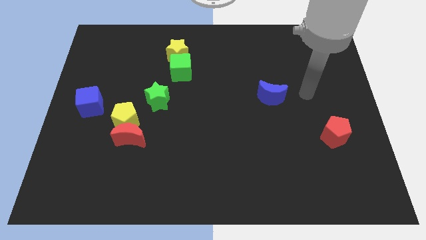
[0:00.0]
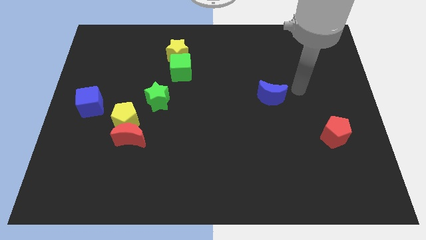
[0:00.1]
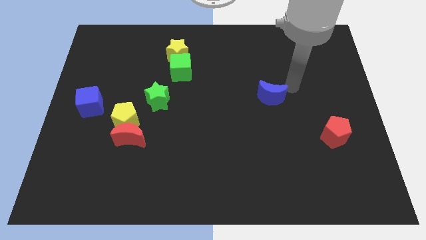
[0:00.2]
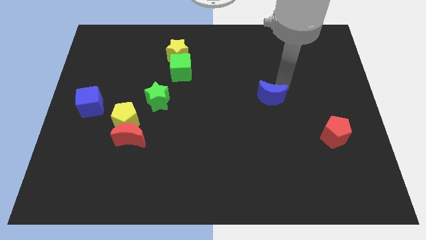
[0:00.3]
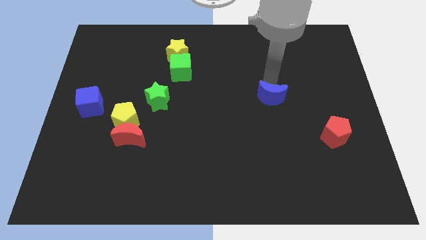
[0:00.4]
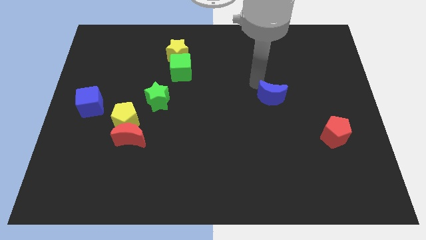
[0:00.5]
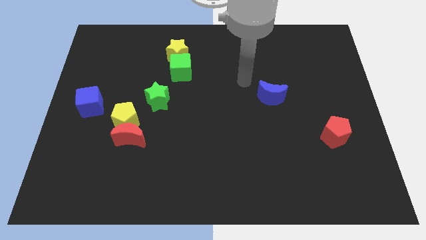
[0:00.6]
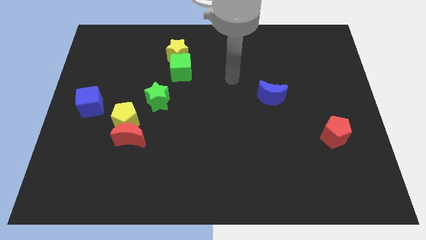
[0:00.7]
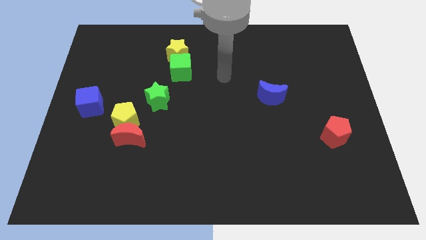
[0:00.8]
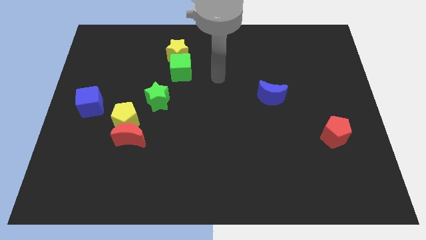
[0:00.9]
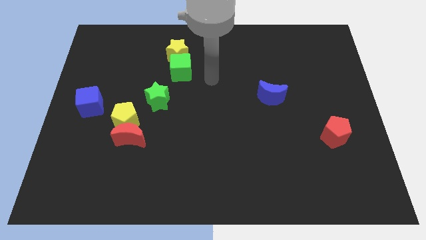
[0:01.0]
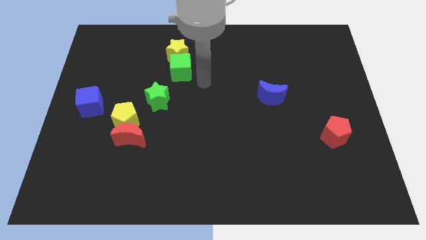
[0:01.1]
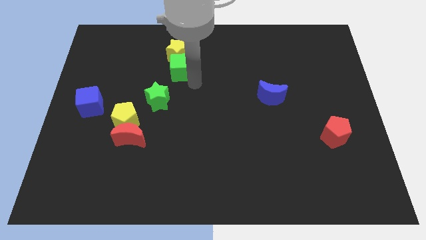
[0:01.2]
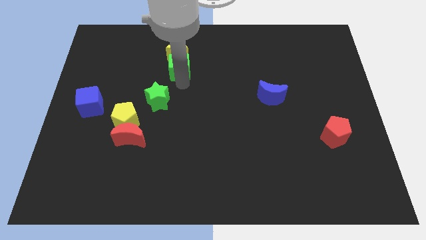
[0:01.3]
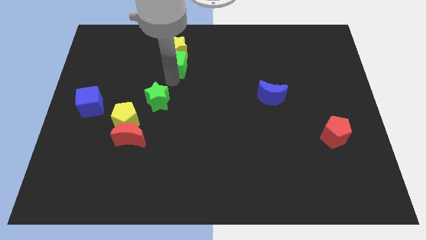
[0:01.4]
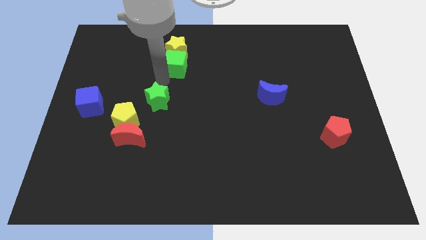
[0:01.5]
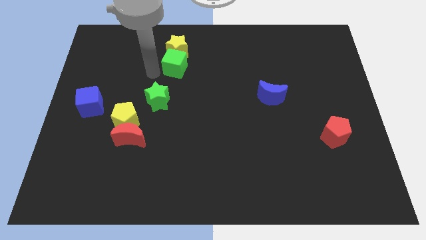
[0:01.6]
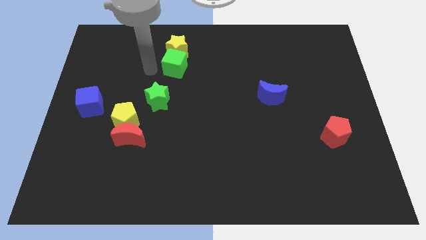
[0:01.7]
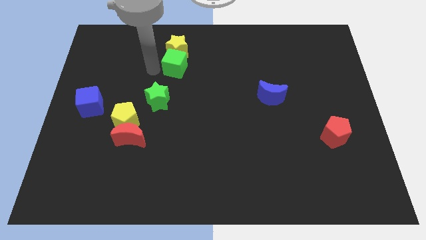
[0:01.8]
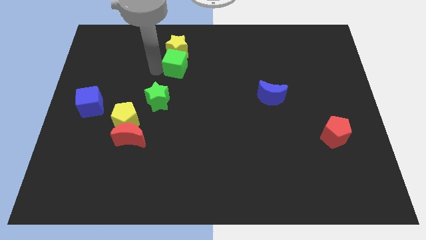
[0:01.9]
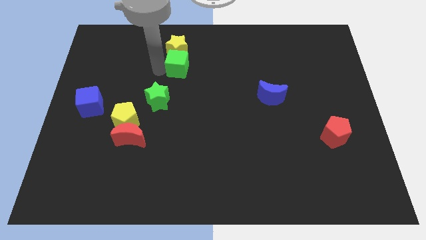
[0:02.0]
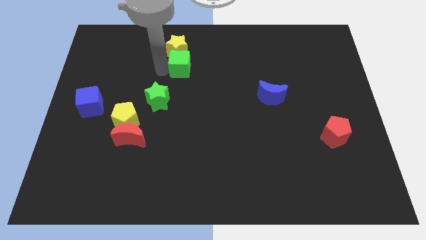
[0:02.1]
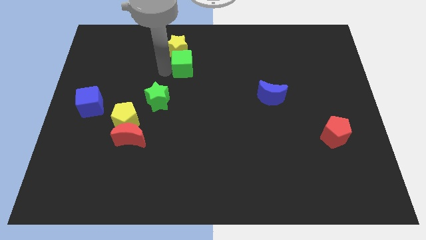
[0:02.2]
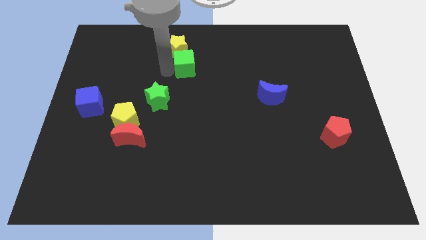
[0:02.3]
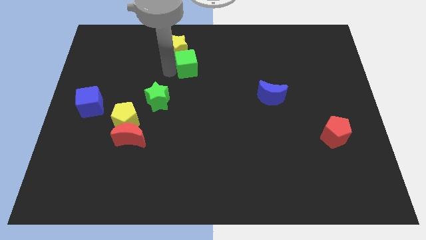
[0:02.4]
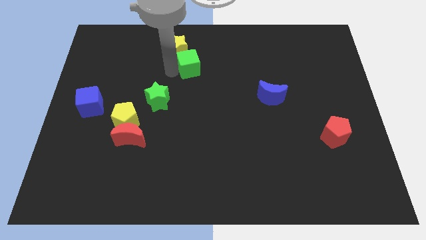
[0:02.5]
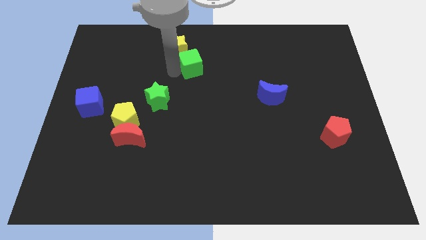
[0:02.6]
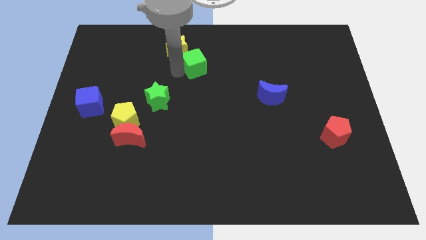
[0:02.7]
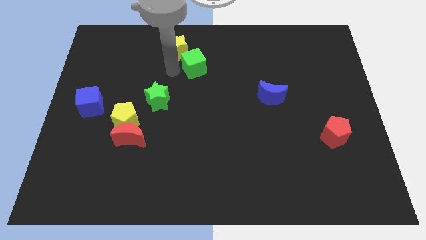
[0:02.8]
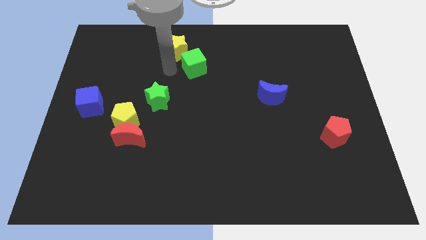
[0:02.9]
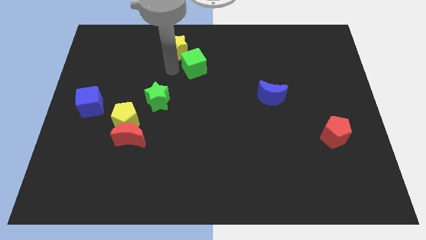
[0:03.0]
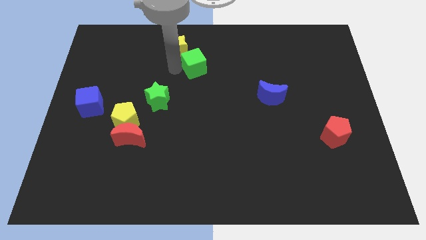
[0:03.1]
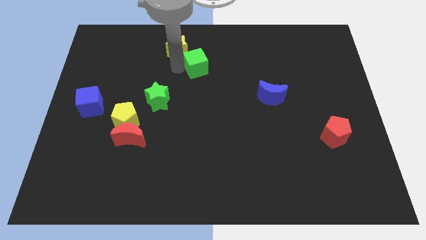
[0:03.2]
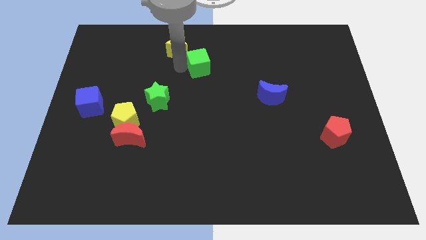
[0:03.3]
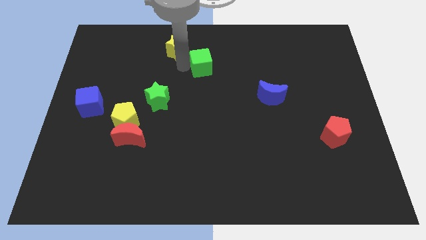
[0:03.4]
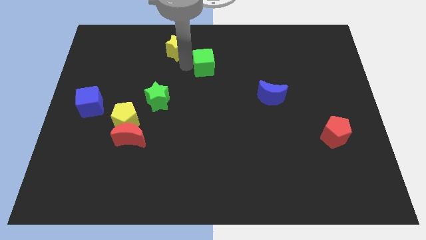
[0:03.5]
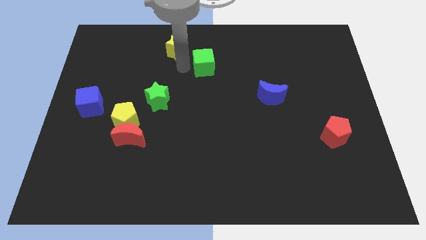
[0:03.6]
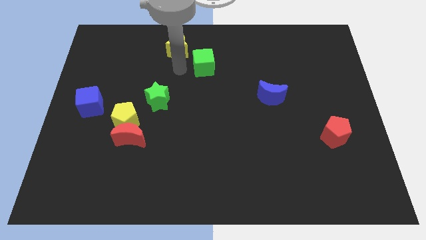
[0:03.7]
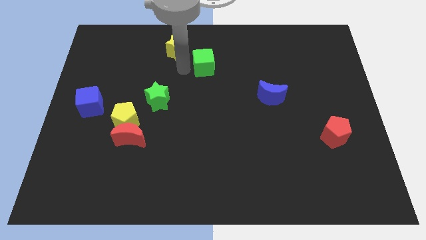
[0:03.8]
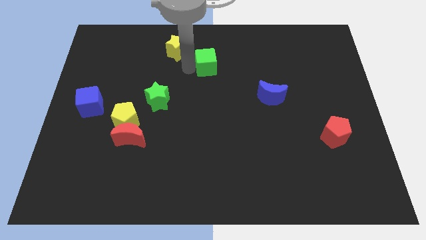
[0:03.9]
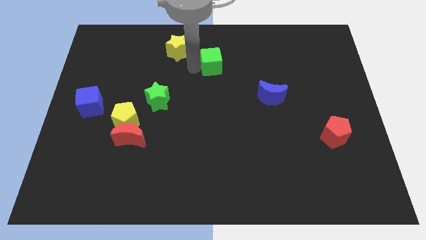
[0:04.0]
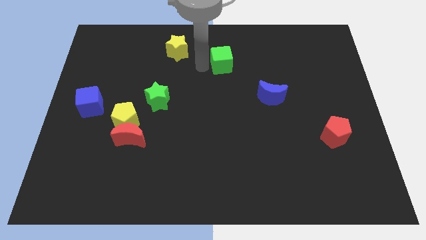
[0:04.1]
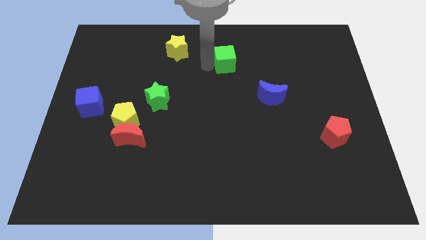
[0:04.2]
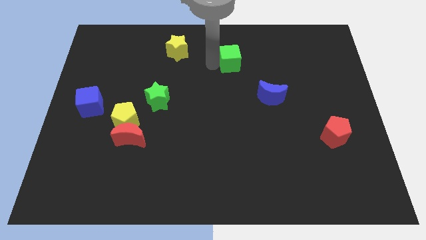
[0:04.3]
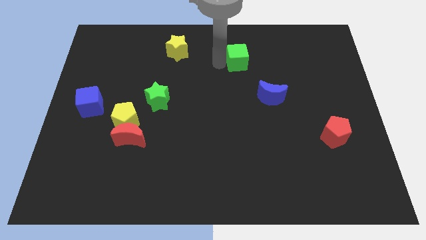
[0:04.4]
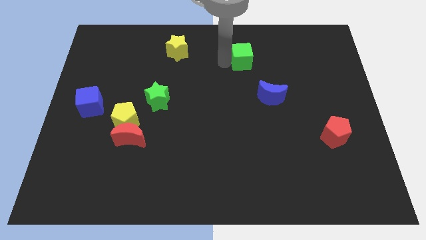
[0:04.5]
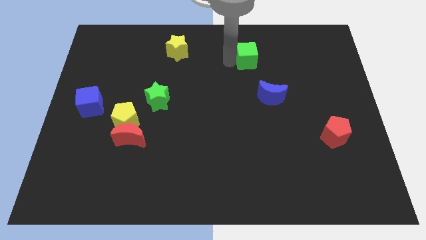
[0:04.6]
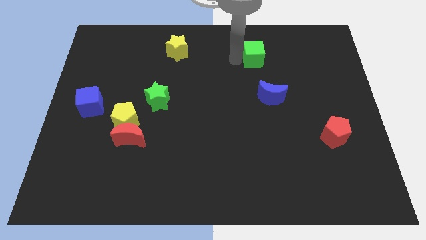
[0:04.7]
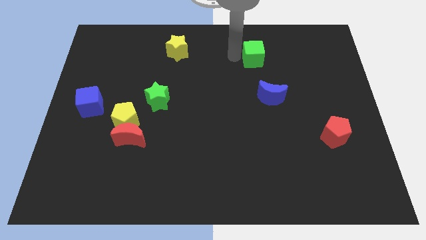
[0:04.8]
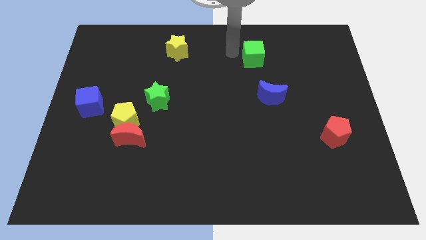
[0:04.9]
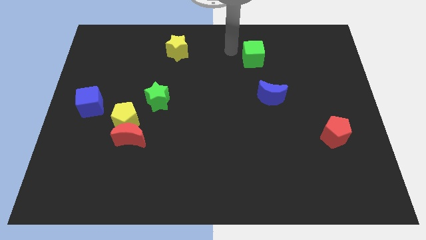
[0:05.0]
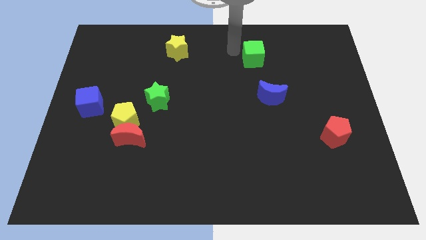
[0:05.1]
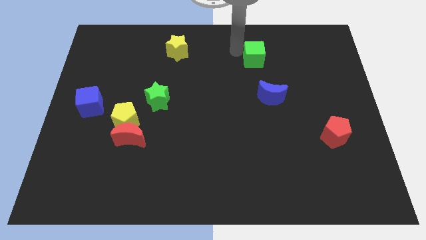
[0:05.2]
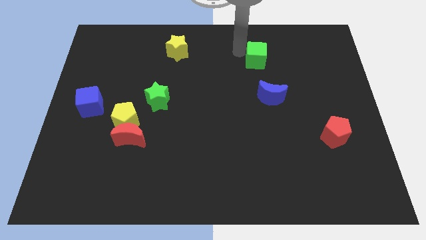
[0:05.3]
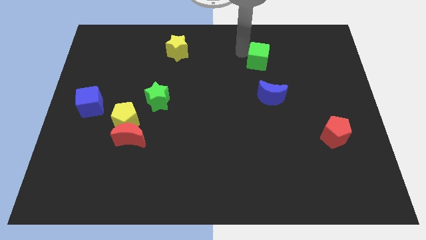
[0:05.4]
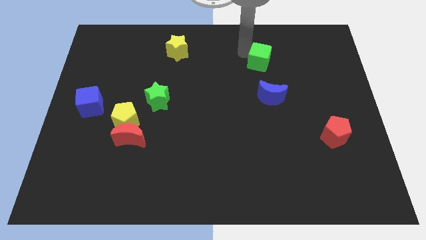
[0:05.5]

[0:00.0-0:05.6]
slide the green cube to the right

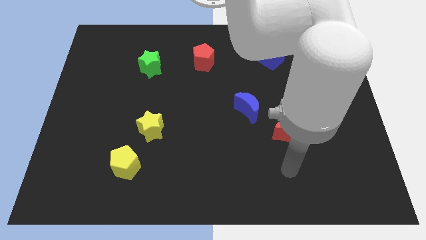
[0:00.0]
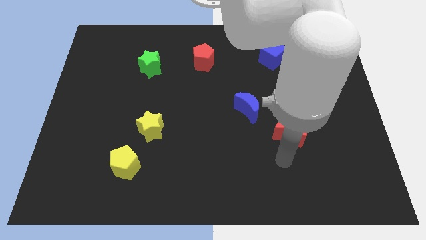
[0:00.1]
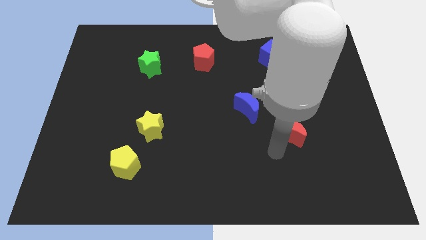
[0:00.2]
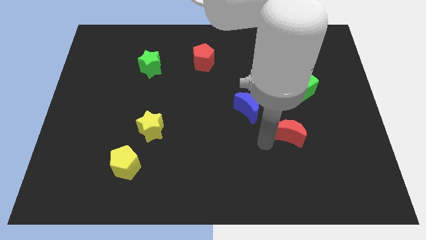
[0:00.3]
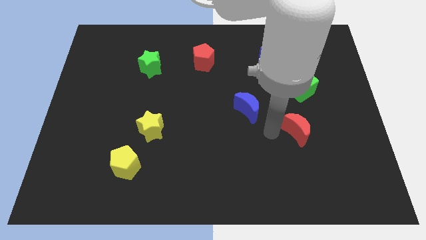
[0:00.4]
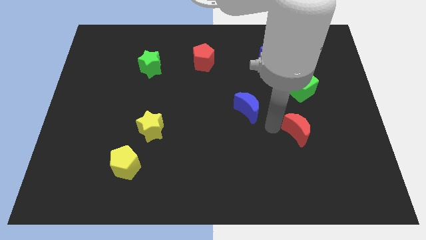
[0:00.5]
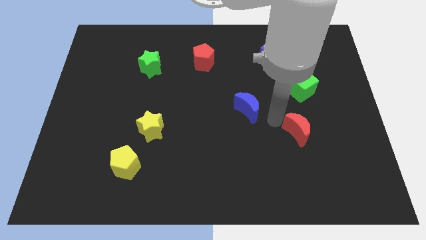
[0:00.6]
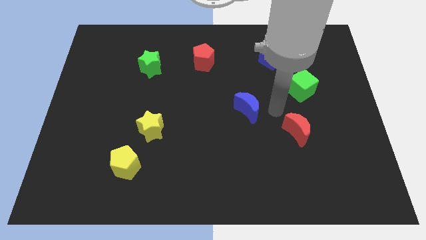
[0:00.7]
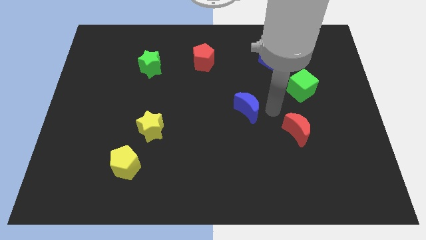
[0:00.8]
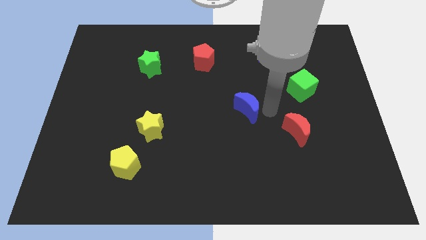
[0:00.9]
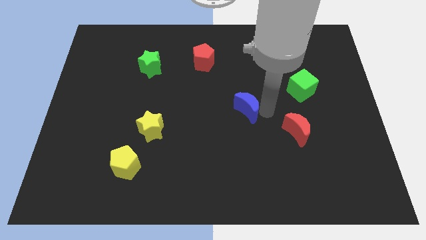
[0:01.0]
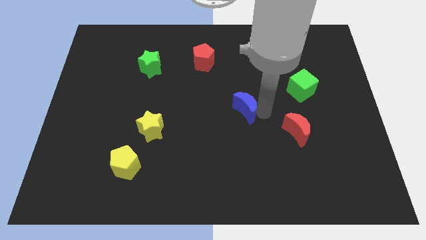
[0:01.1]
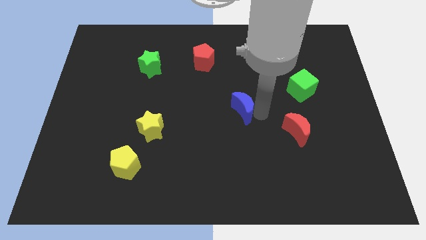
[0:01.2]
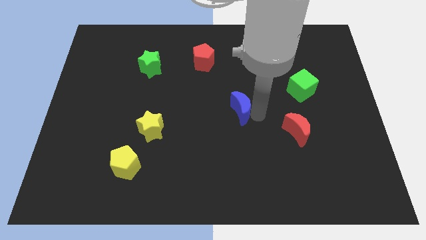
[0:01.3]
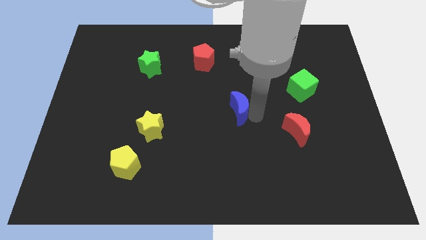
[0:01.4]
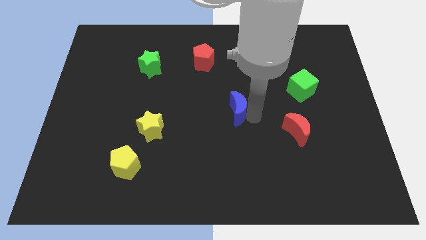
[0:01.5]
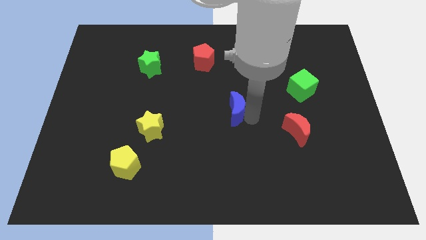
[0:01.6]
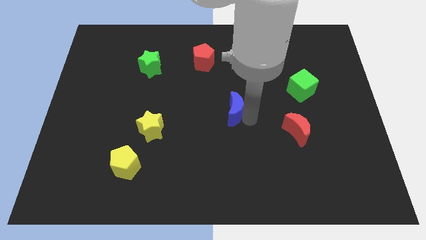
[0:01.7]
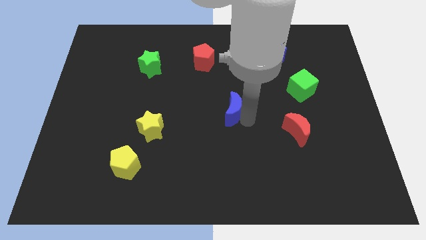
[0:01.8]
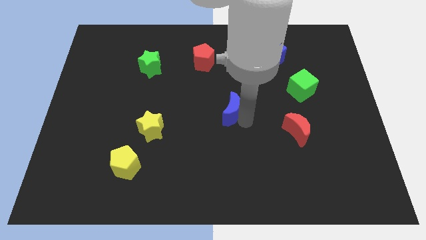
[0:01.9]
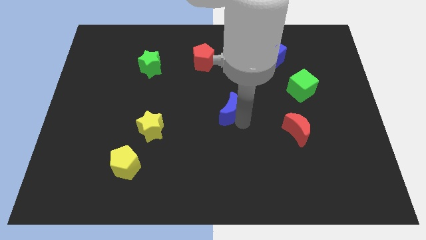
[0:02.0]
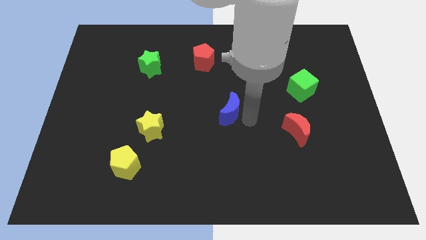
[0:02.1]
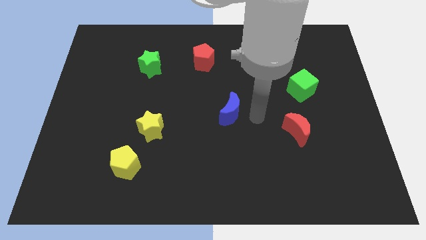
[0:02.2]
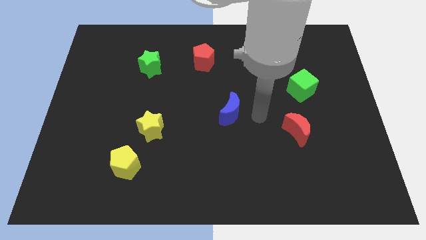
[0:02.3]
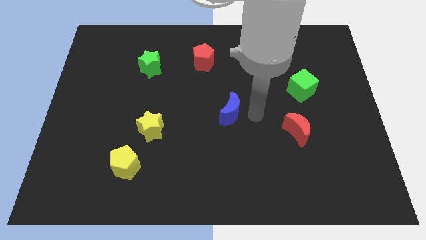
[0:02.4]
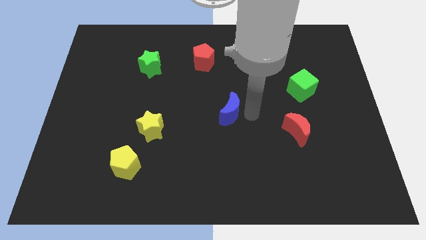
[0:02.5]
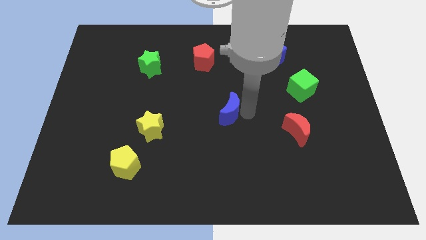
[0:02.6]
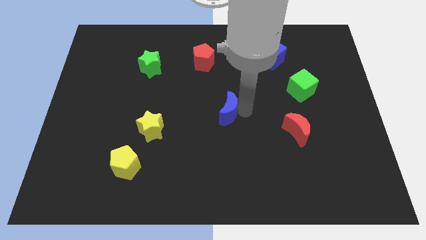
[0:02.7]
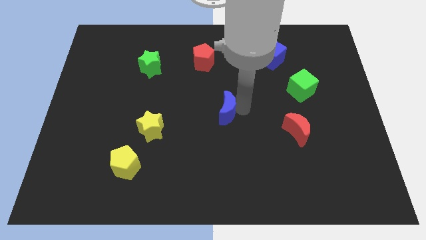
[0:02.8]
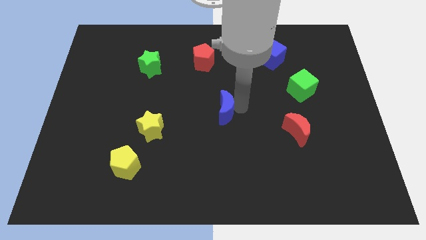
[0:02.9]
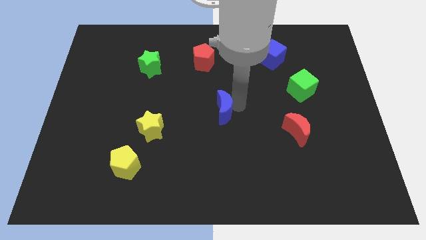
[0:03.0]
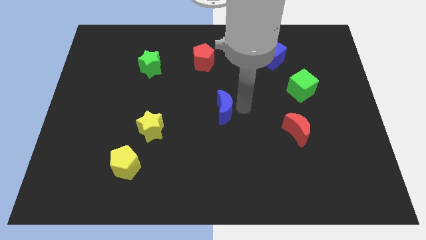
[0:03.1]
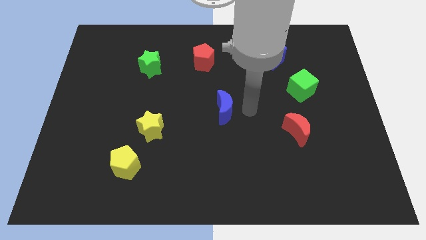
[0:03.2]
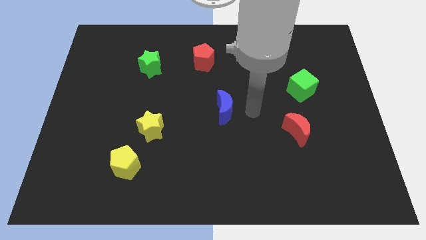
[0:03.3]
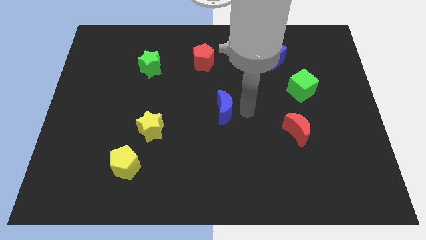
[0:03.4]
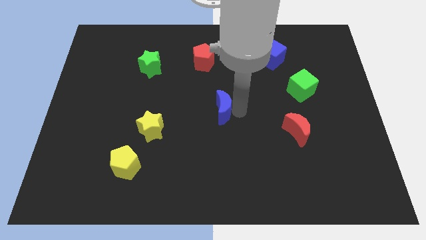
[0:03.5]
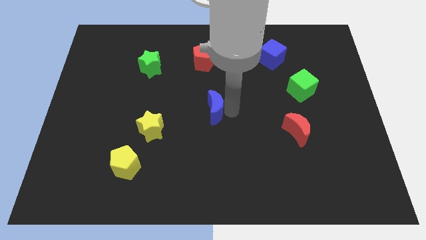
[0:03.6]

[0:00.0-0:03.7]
push the blue moon to the left slightly
